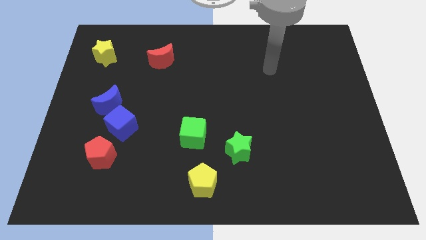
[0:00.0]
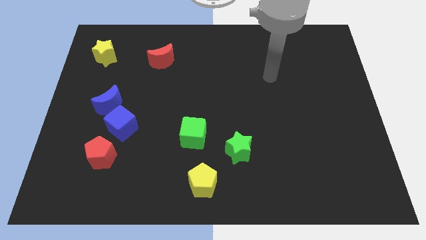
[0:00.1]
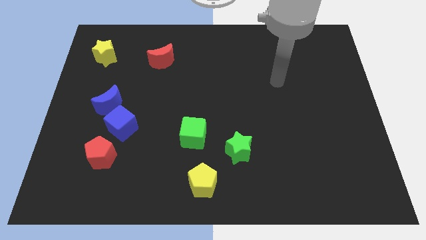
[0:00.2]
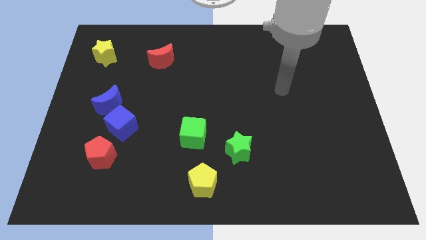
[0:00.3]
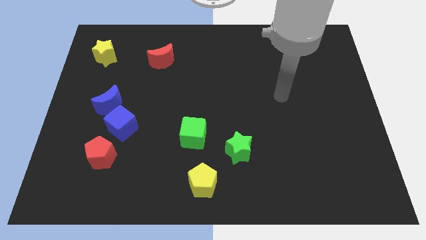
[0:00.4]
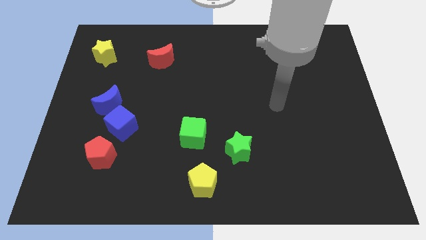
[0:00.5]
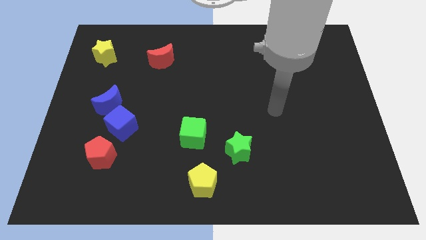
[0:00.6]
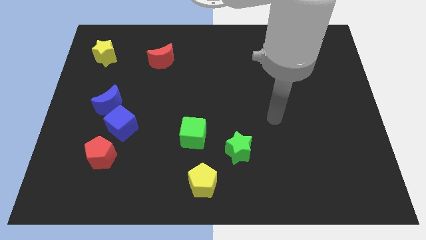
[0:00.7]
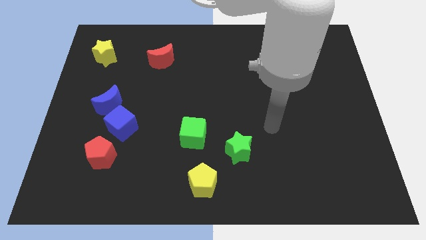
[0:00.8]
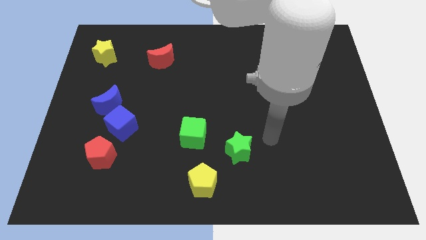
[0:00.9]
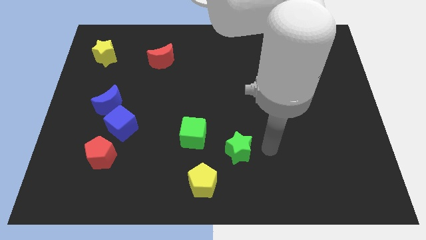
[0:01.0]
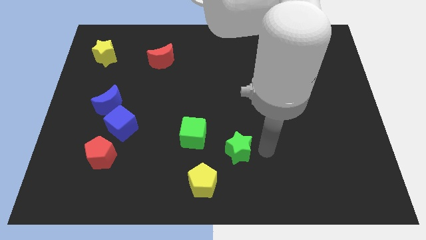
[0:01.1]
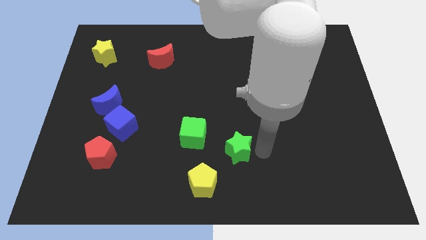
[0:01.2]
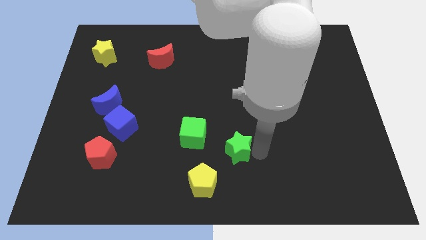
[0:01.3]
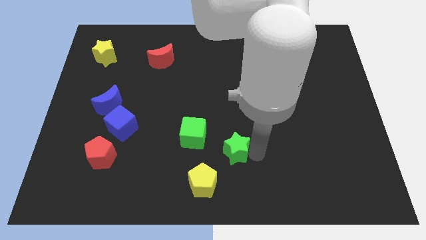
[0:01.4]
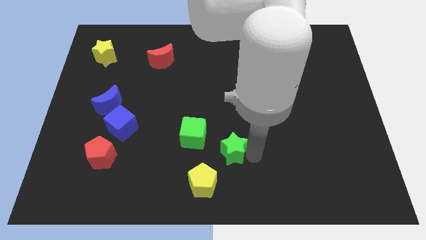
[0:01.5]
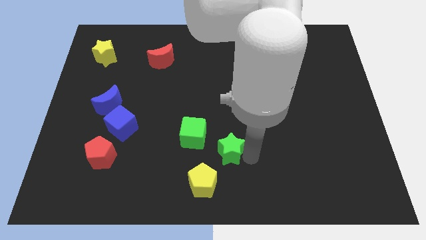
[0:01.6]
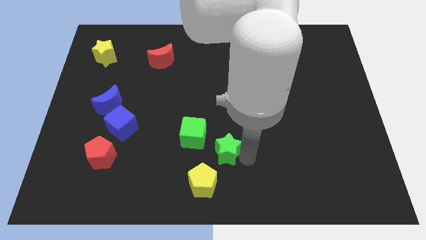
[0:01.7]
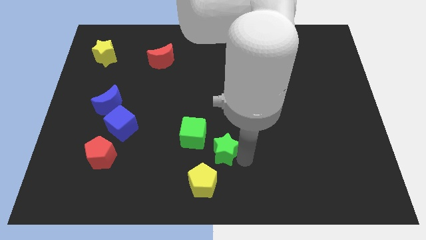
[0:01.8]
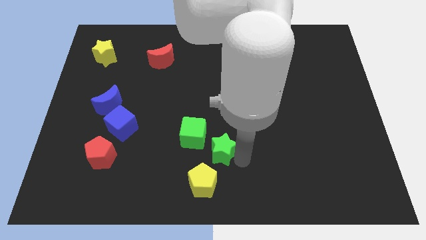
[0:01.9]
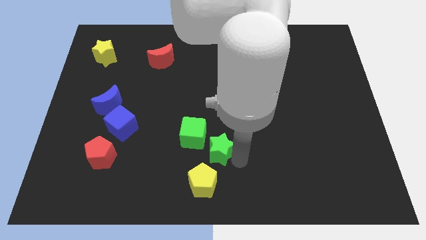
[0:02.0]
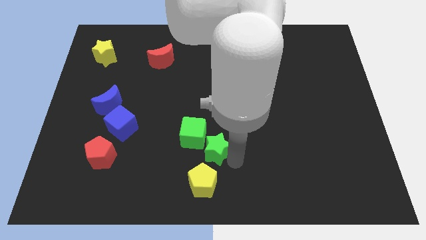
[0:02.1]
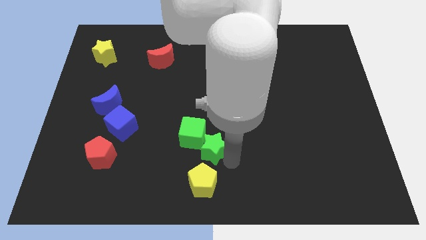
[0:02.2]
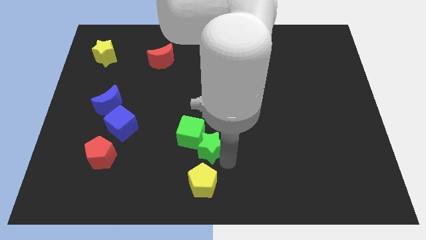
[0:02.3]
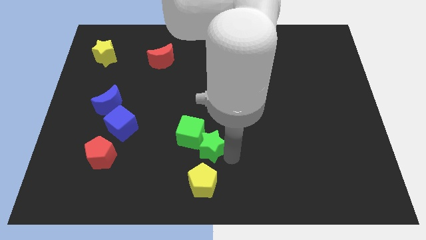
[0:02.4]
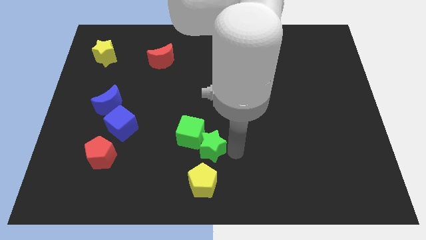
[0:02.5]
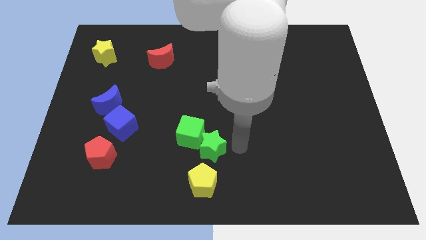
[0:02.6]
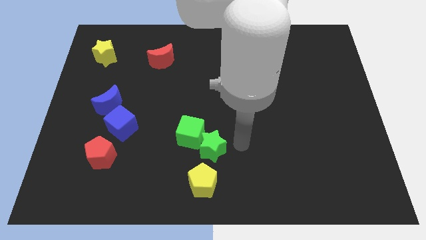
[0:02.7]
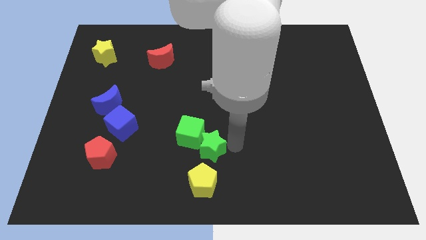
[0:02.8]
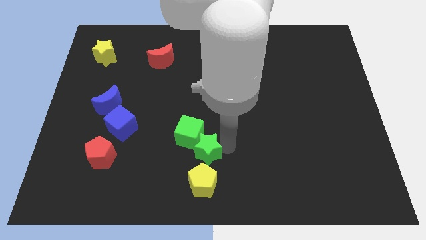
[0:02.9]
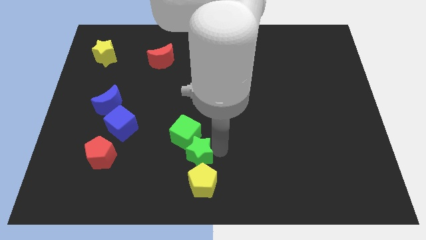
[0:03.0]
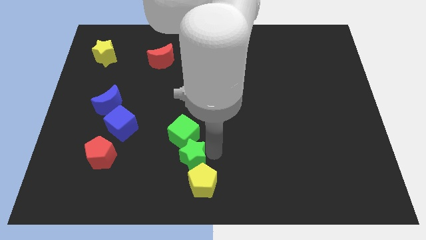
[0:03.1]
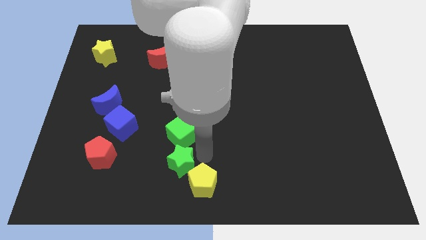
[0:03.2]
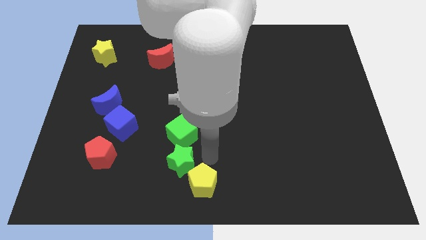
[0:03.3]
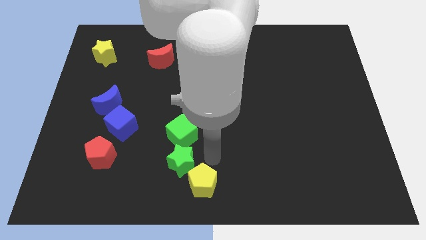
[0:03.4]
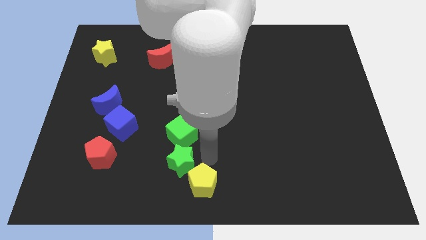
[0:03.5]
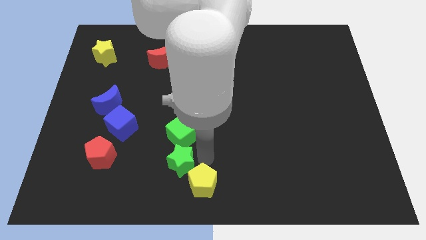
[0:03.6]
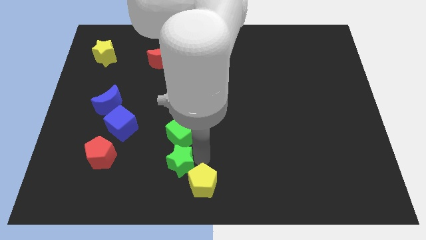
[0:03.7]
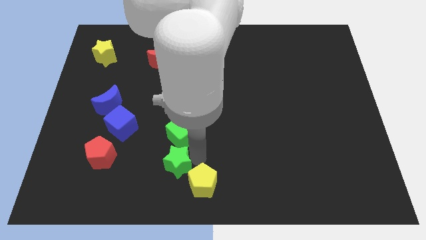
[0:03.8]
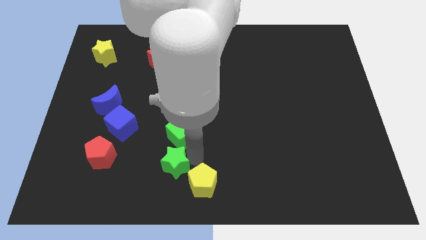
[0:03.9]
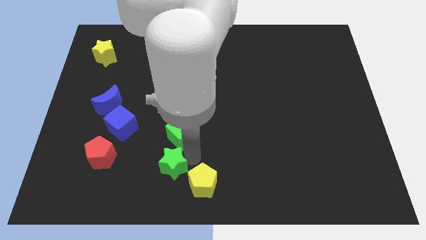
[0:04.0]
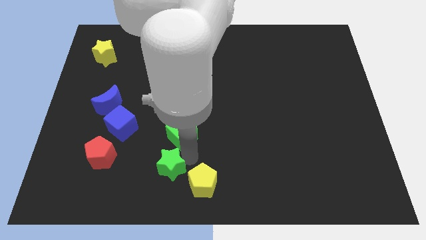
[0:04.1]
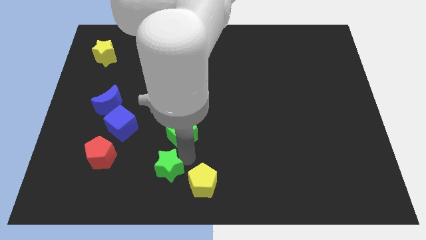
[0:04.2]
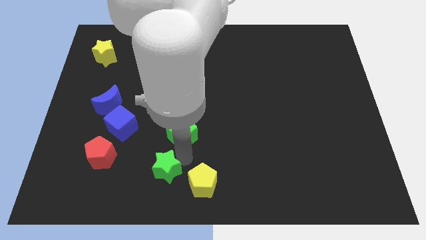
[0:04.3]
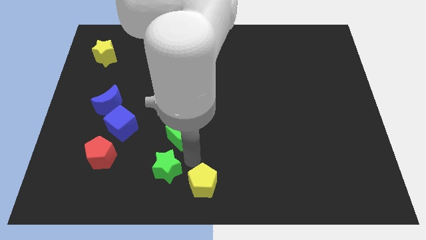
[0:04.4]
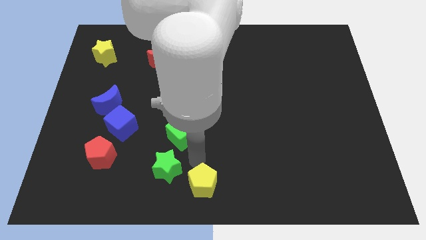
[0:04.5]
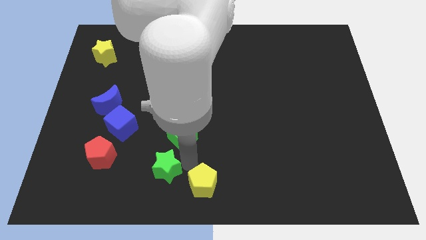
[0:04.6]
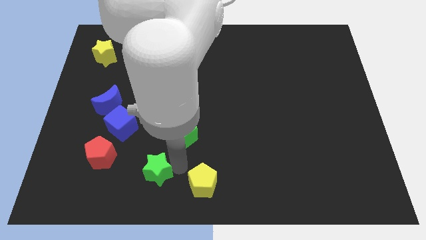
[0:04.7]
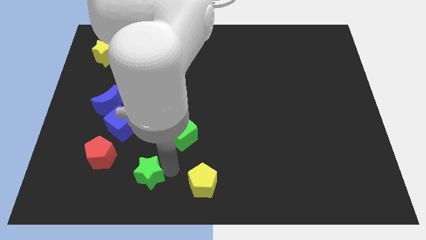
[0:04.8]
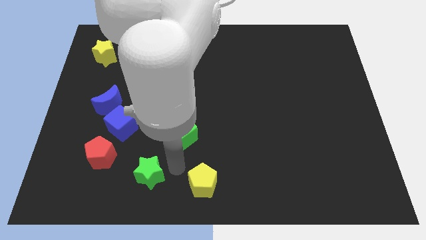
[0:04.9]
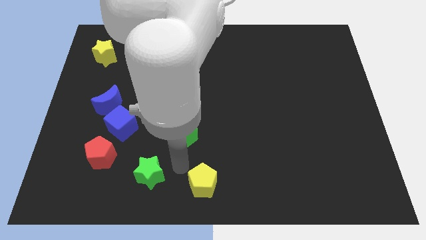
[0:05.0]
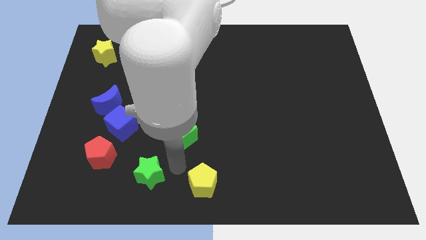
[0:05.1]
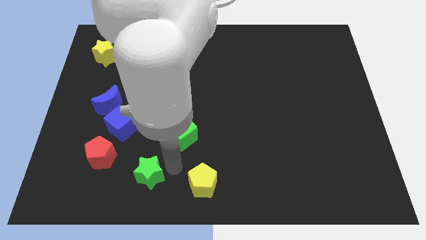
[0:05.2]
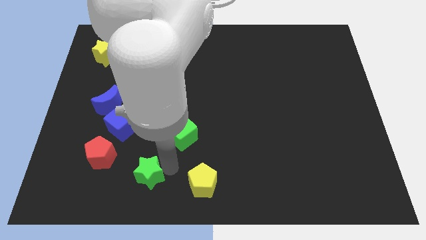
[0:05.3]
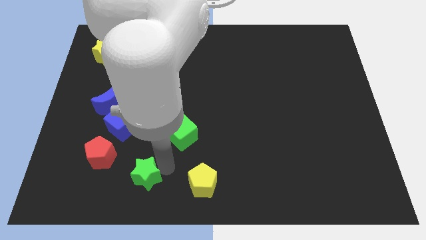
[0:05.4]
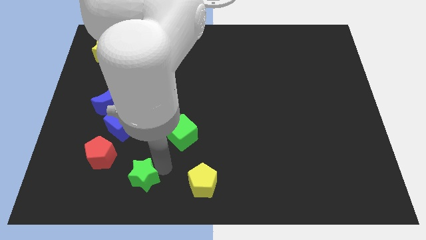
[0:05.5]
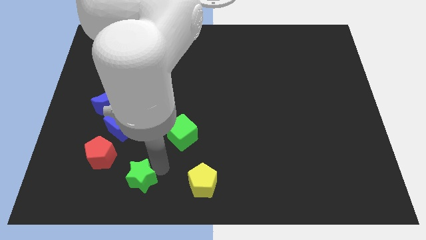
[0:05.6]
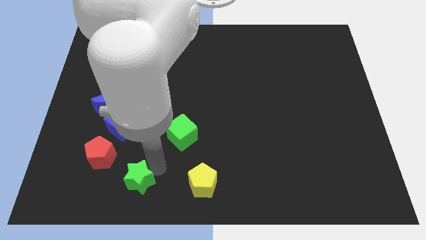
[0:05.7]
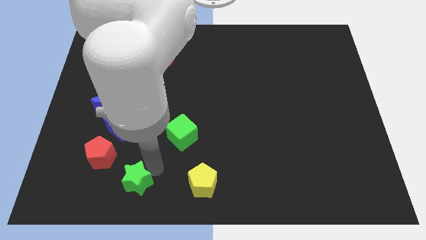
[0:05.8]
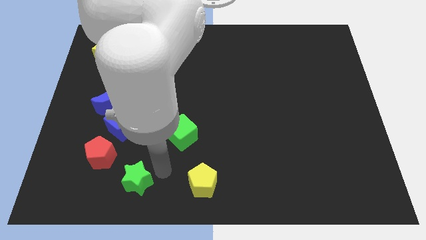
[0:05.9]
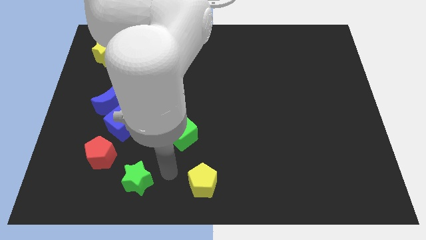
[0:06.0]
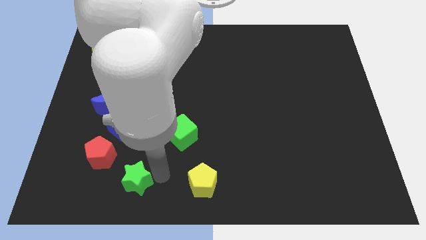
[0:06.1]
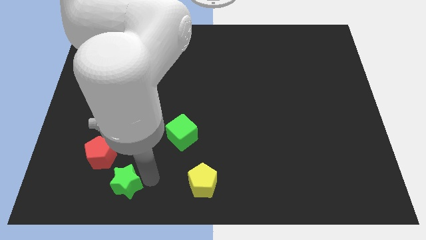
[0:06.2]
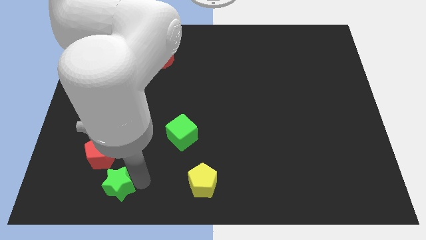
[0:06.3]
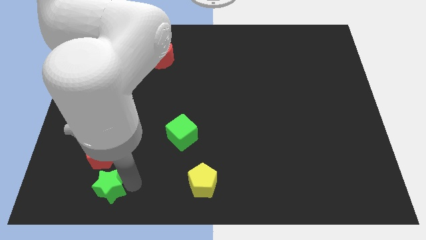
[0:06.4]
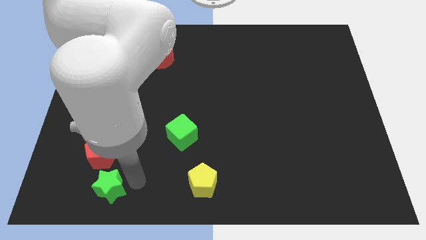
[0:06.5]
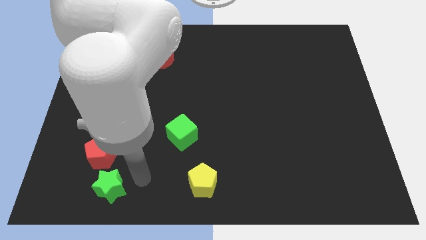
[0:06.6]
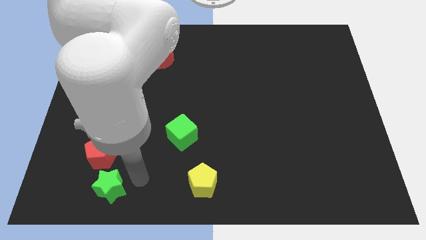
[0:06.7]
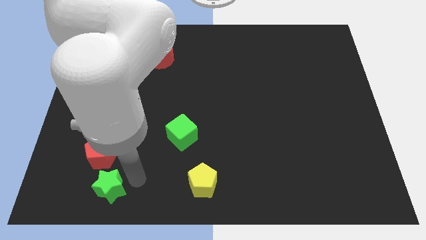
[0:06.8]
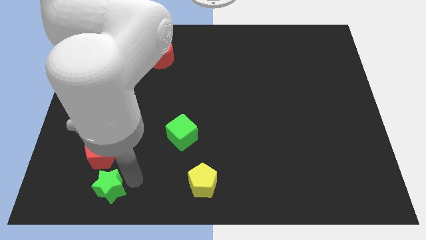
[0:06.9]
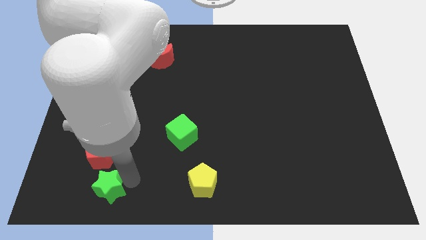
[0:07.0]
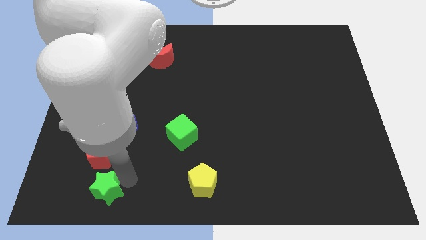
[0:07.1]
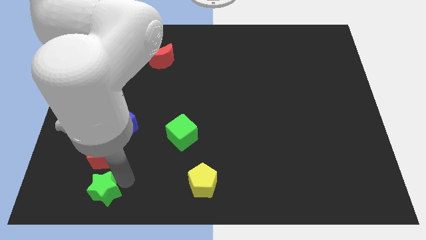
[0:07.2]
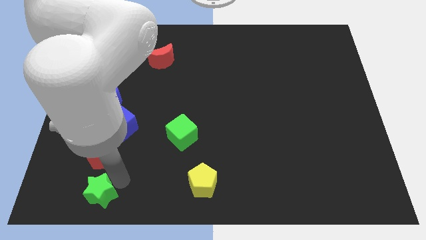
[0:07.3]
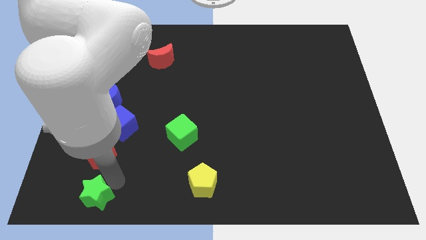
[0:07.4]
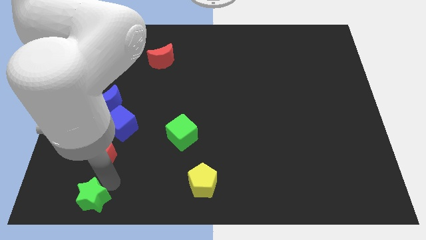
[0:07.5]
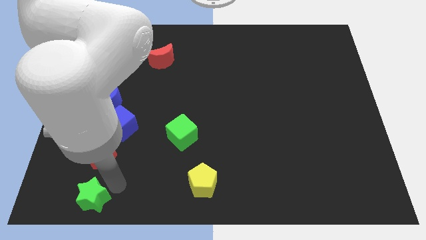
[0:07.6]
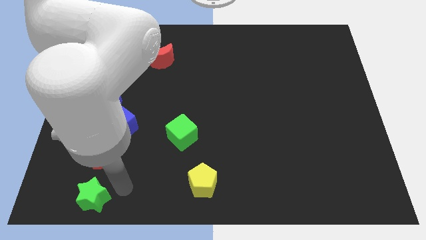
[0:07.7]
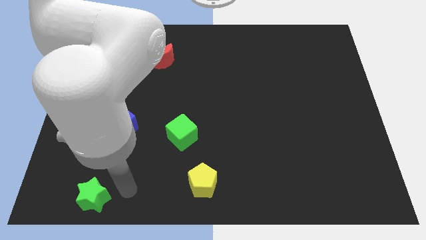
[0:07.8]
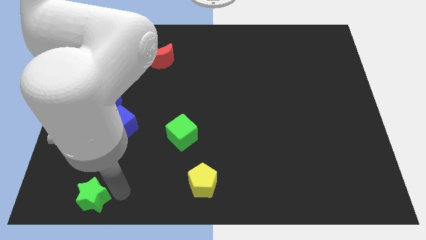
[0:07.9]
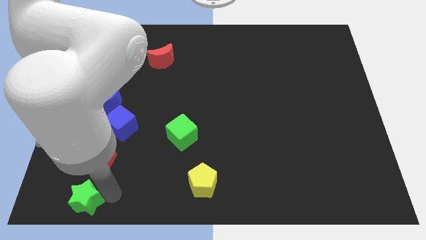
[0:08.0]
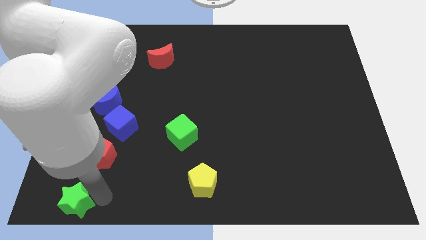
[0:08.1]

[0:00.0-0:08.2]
move the green star to the bottom left corner
